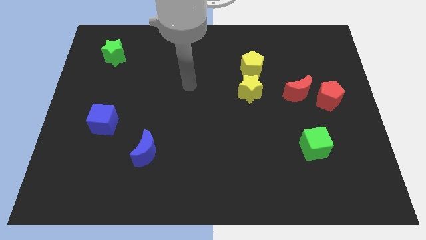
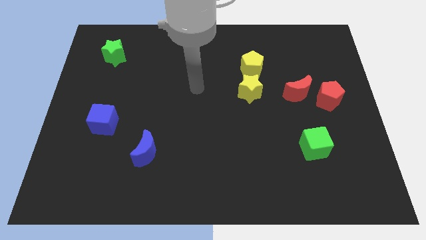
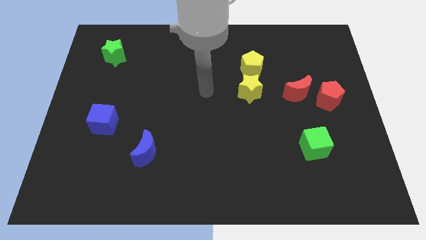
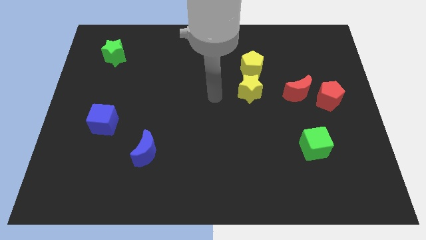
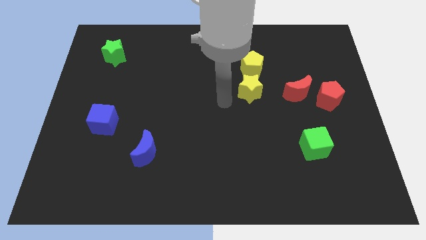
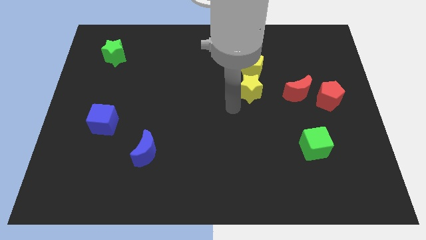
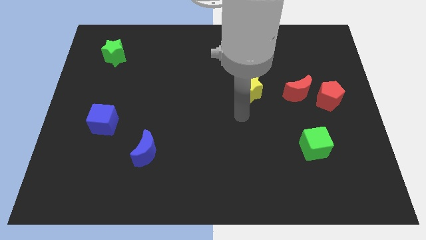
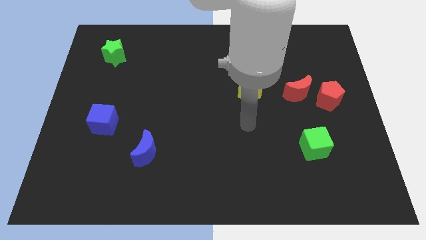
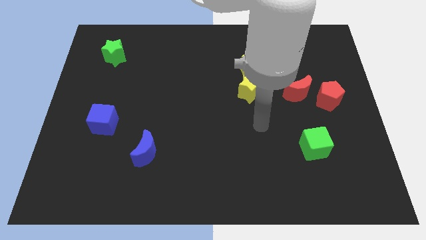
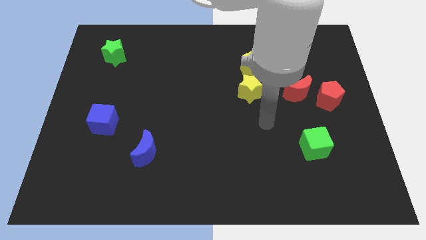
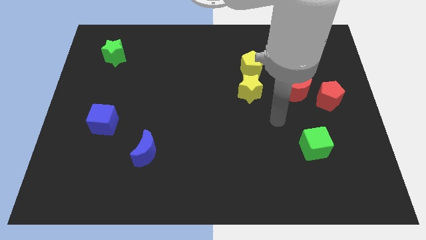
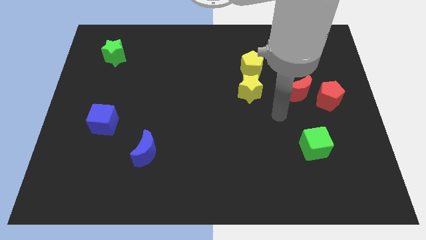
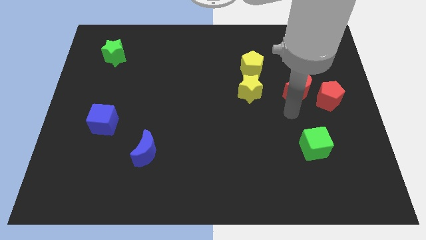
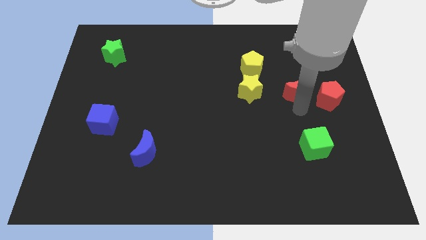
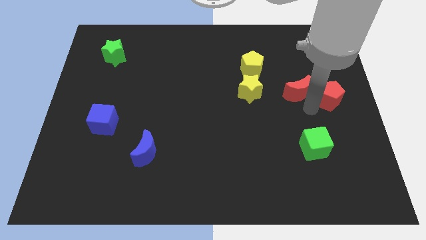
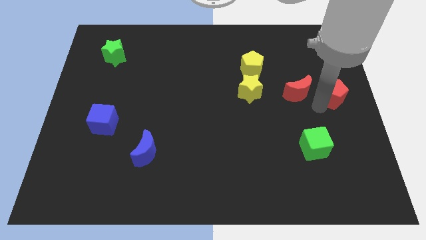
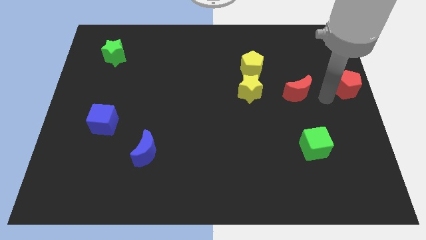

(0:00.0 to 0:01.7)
pull the red moon apart from the red pentagon

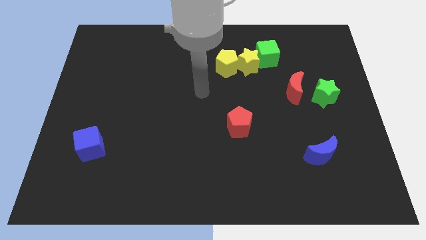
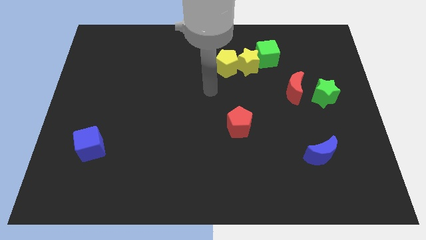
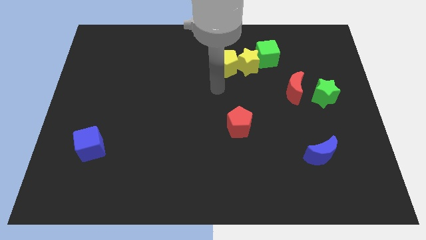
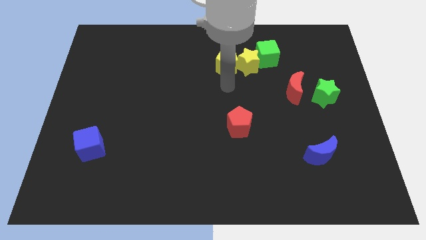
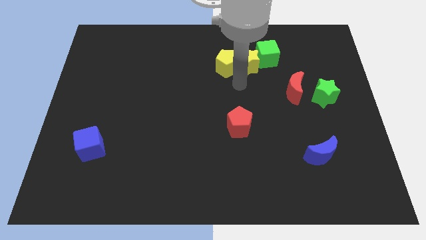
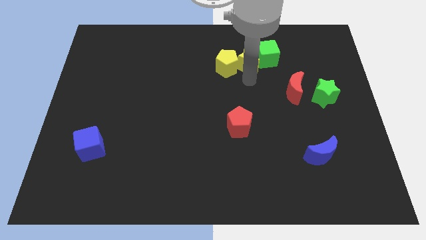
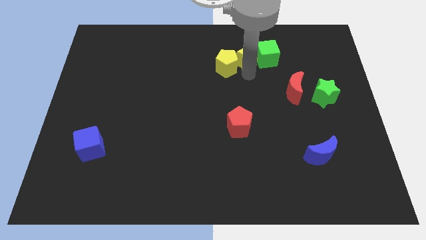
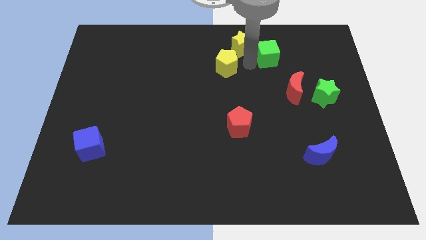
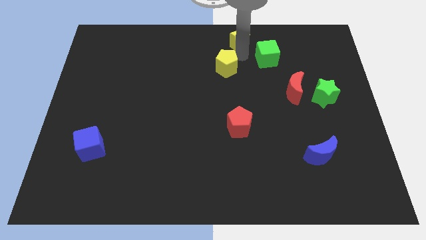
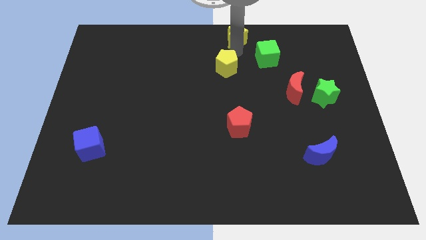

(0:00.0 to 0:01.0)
separate the yellow pentagon from the yellow star

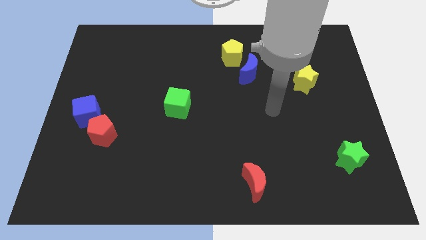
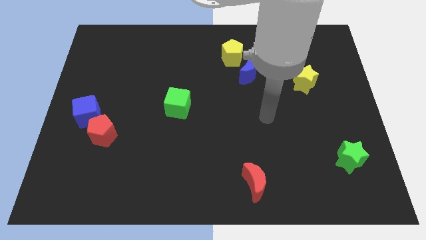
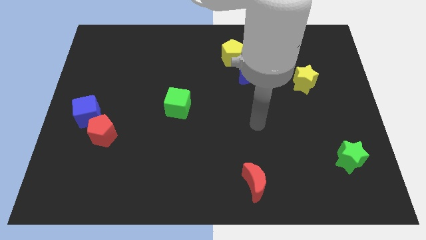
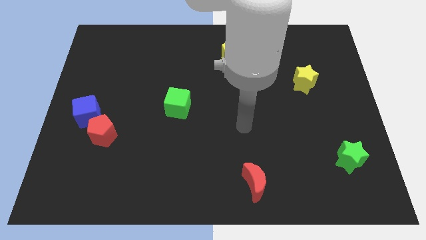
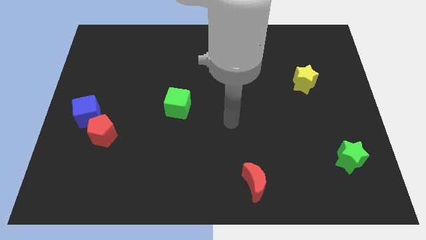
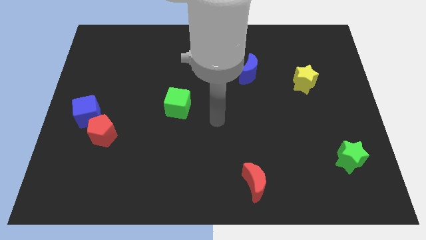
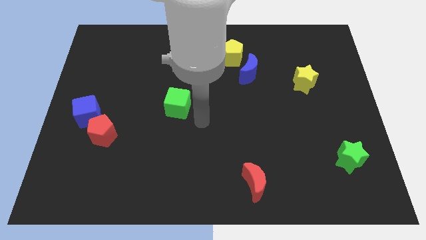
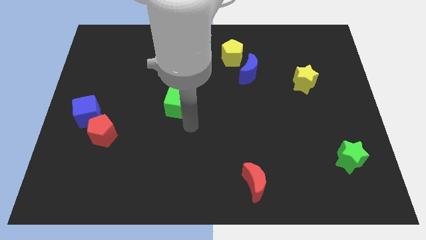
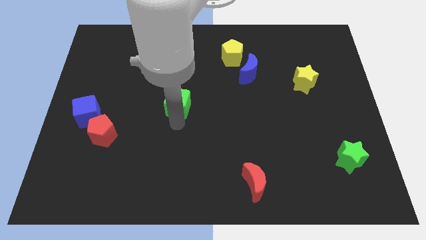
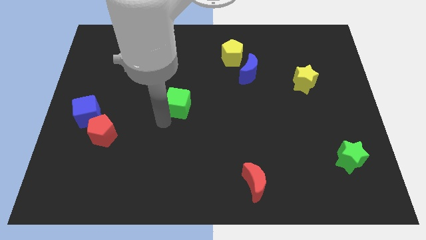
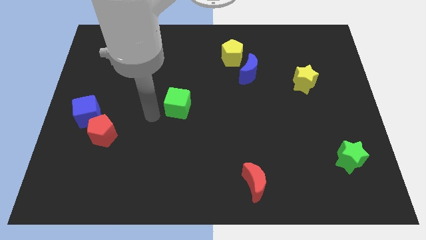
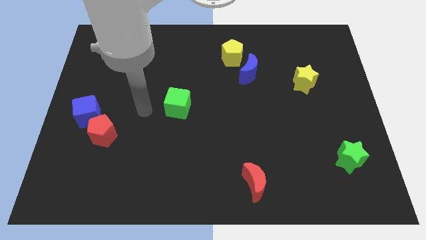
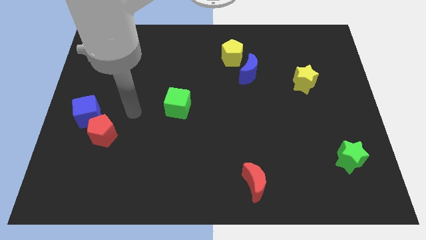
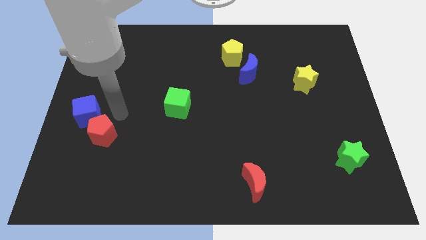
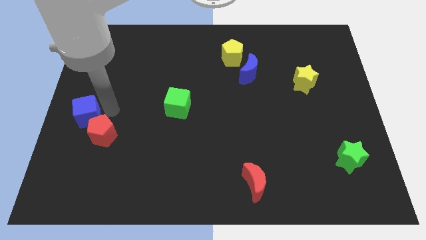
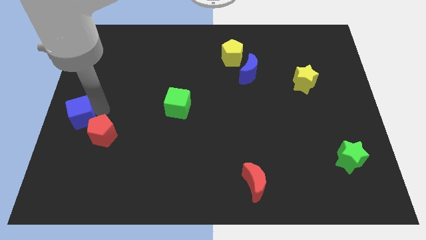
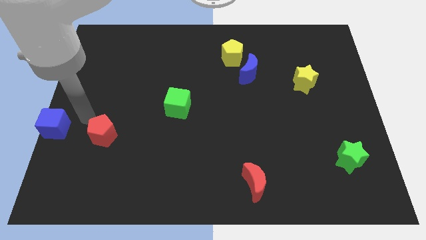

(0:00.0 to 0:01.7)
move the red pentagon away from the blue cube

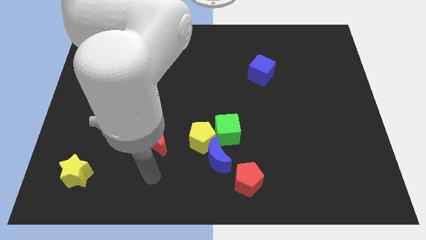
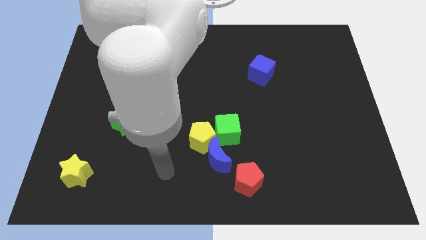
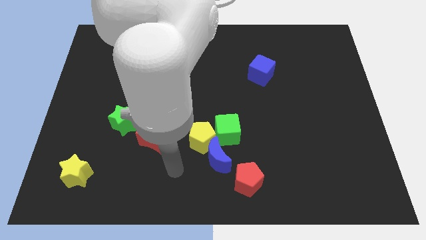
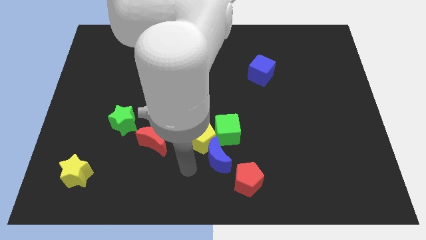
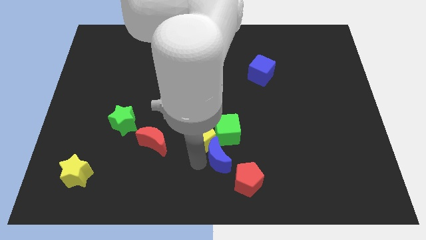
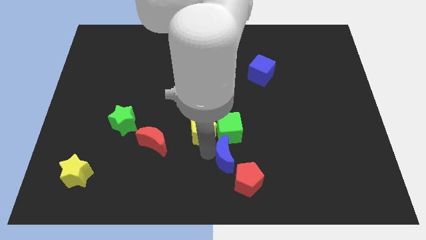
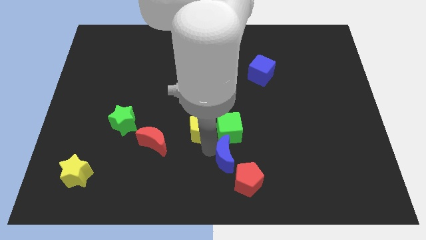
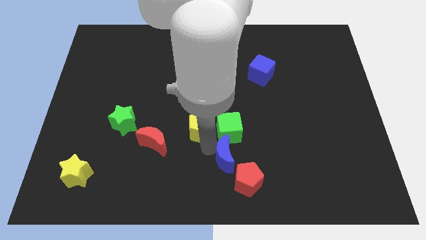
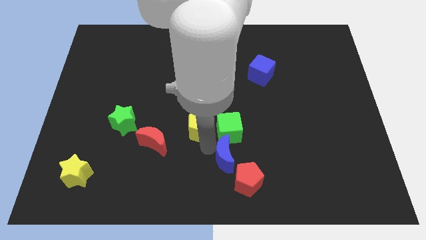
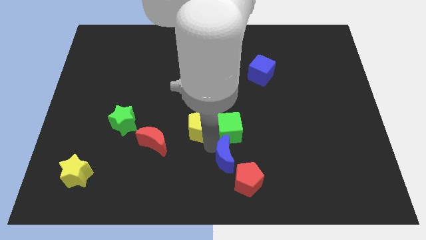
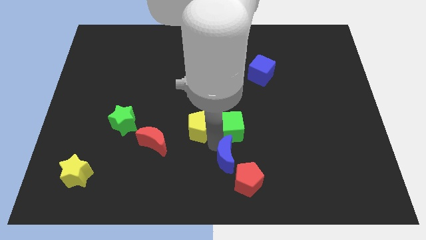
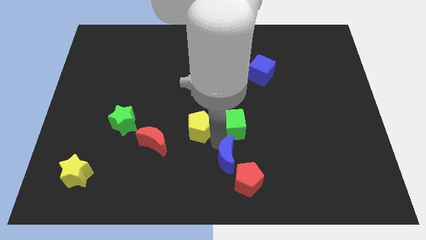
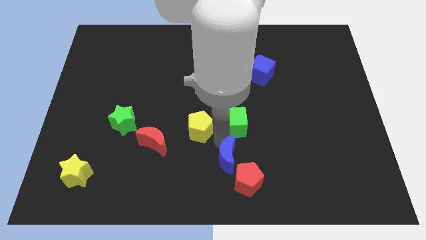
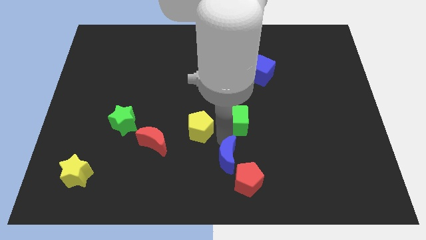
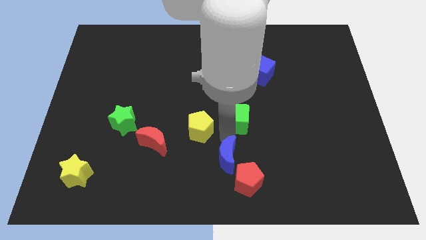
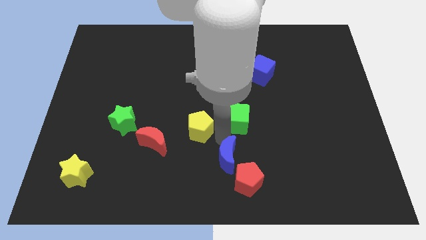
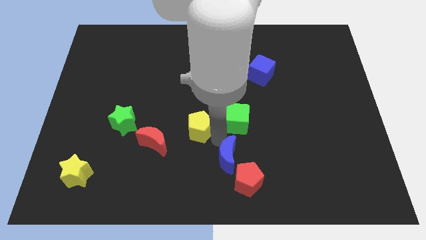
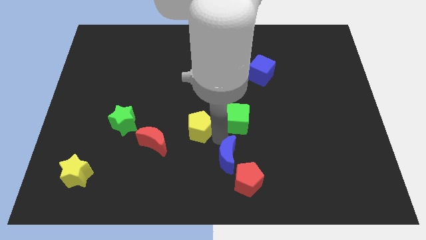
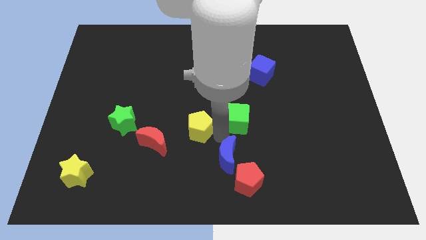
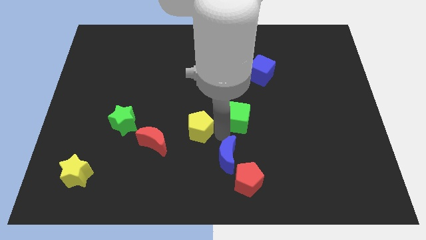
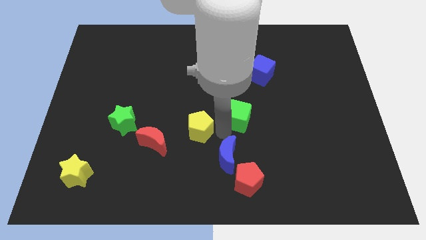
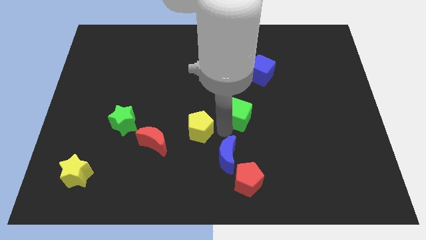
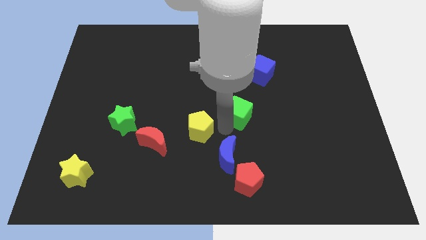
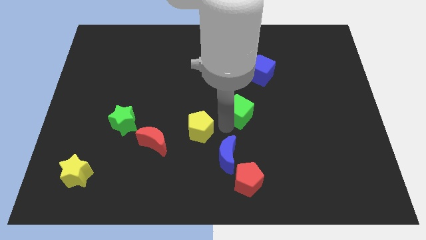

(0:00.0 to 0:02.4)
move the green cube away from the yellow pentagon and blue moon

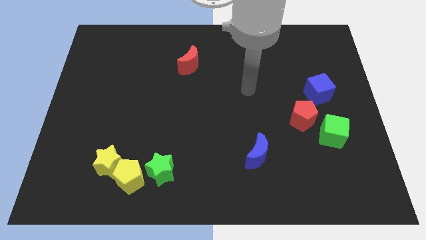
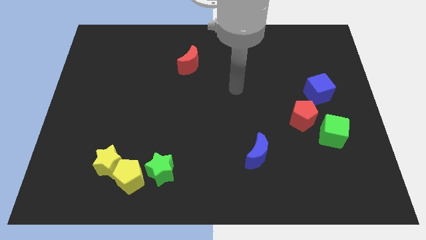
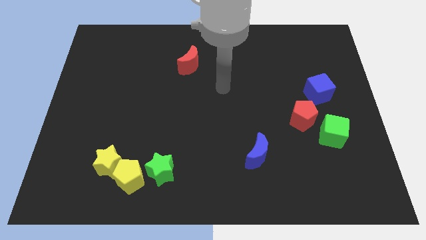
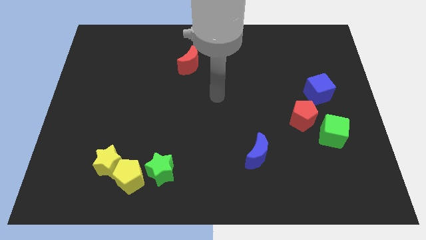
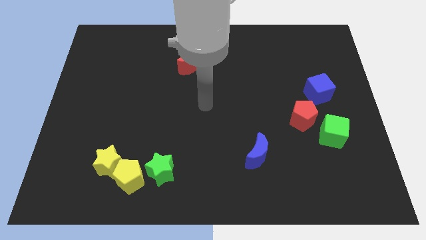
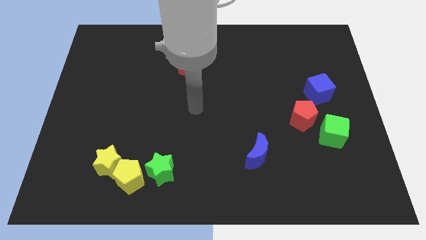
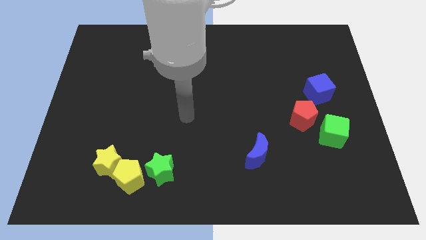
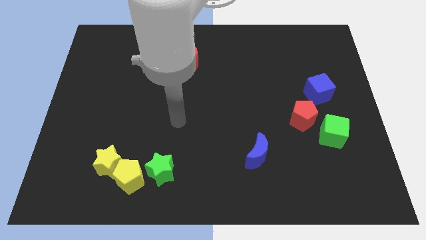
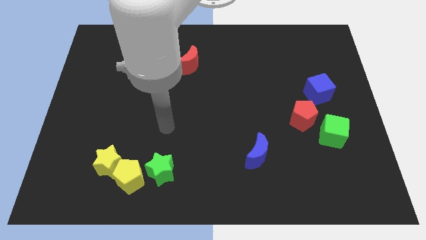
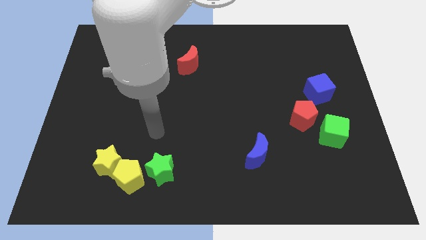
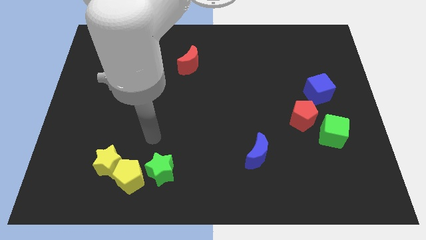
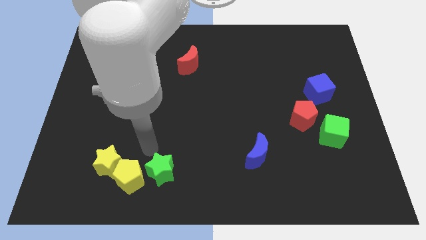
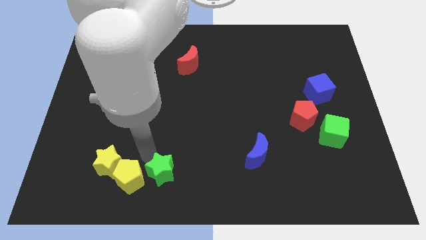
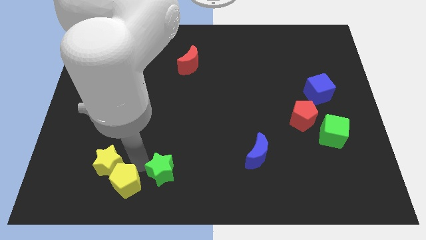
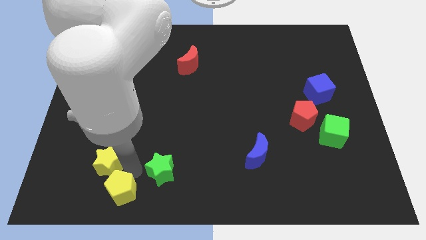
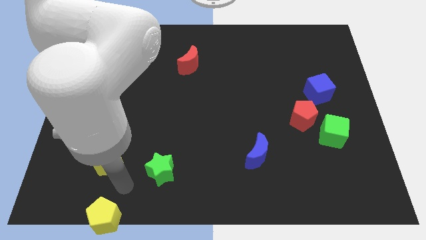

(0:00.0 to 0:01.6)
pull the yellow star apart from the yellow pentagon

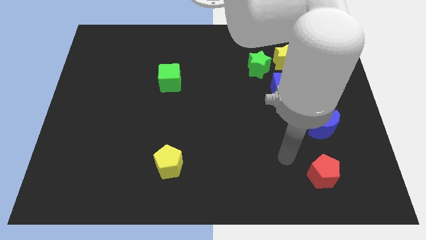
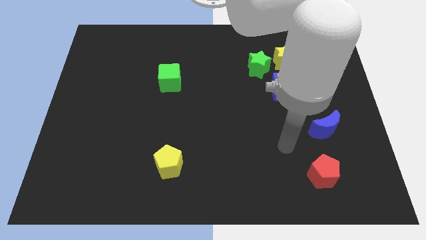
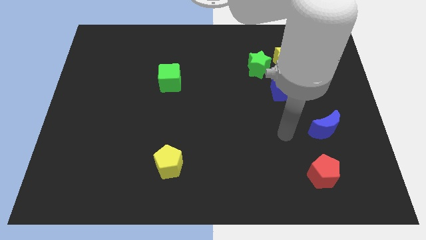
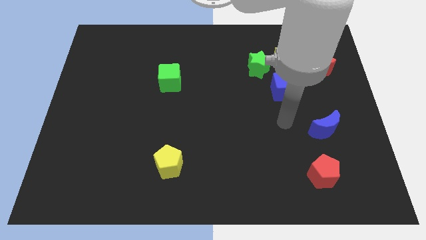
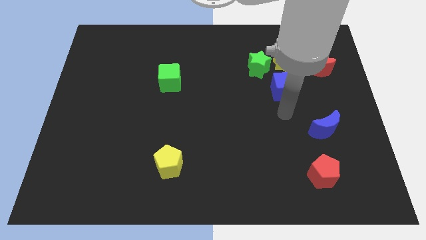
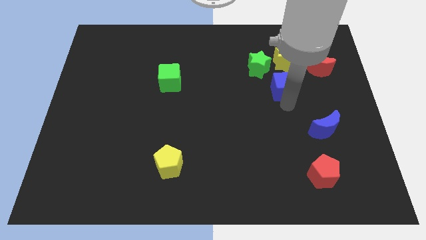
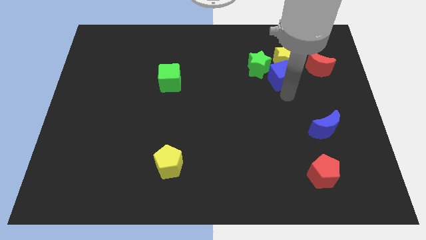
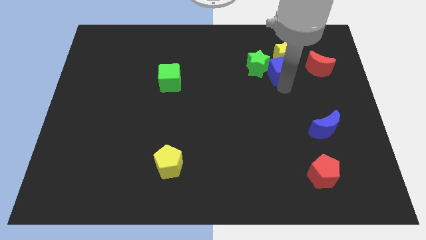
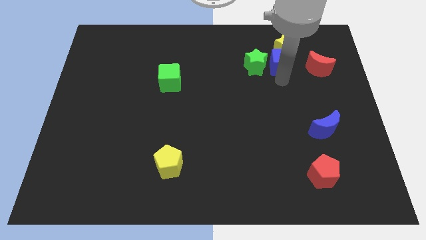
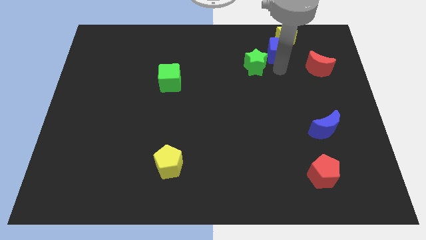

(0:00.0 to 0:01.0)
move the green star away from the yellow star and blue cube
